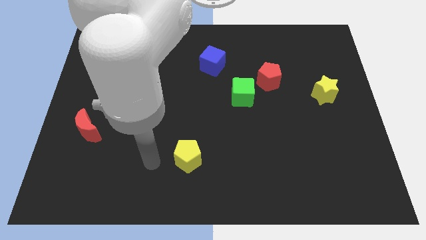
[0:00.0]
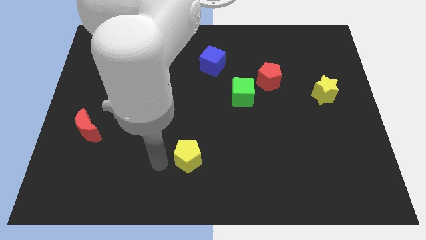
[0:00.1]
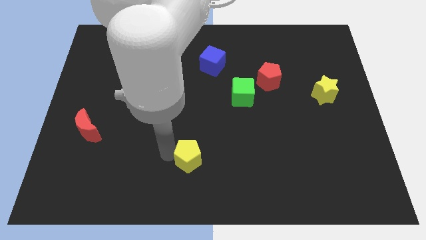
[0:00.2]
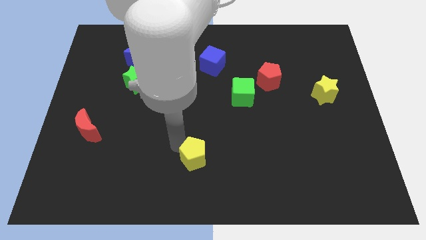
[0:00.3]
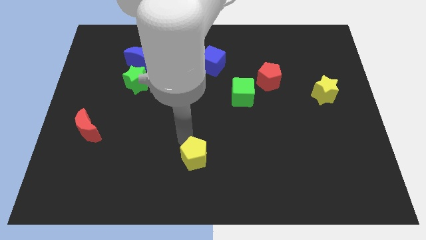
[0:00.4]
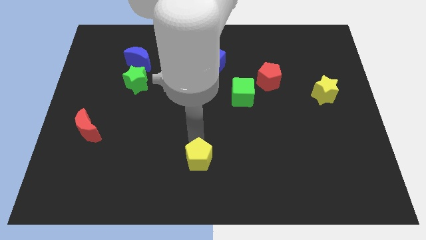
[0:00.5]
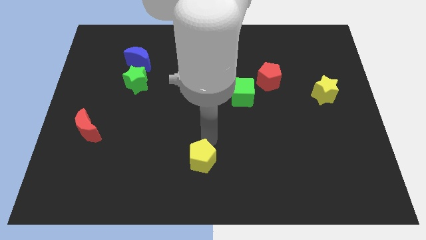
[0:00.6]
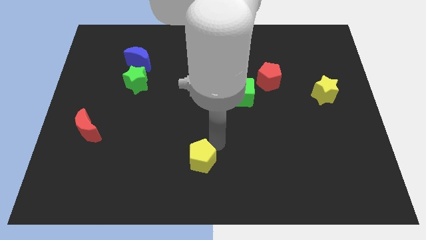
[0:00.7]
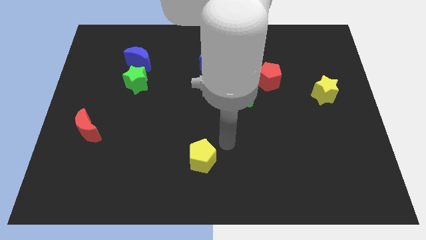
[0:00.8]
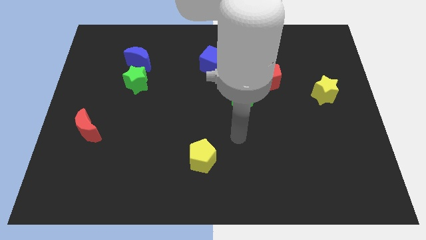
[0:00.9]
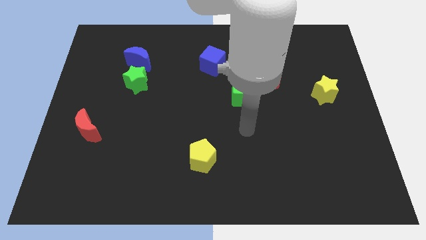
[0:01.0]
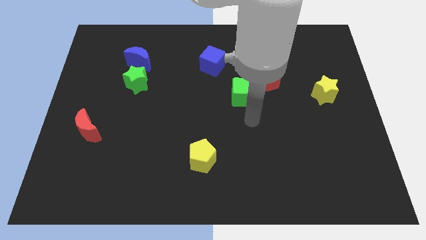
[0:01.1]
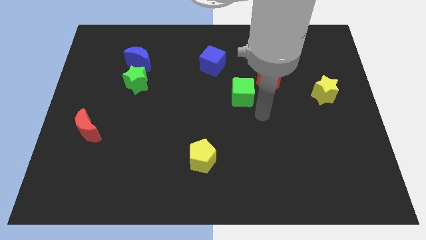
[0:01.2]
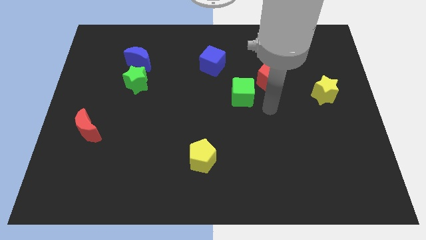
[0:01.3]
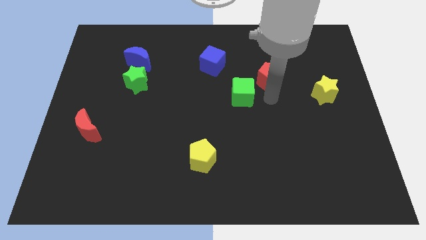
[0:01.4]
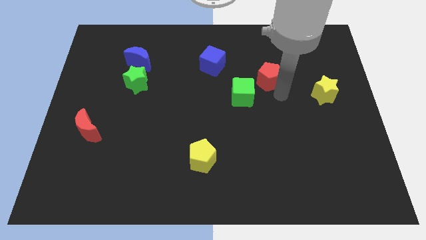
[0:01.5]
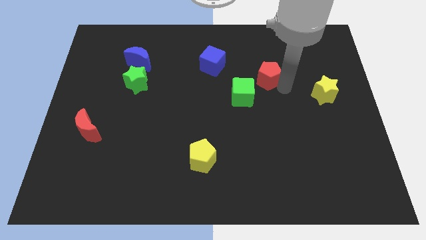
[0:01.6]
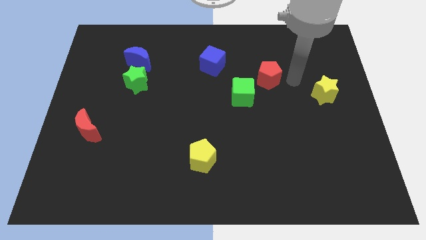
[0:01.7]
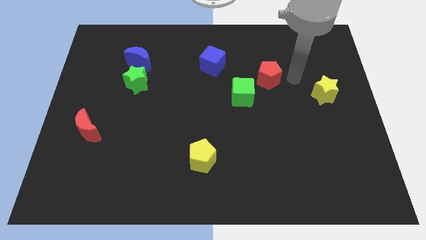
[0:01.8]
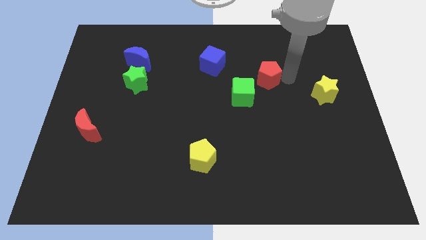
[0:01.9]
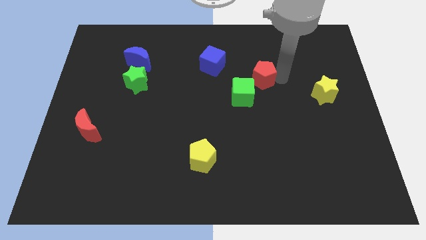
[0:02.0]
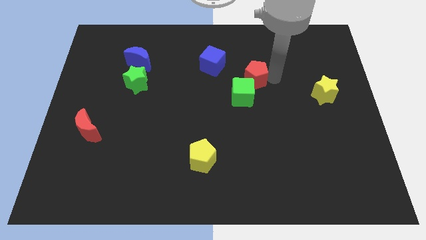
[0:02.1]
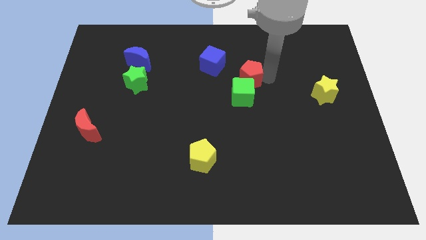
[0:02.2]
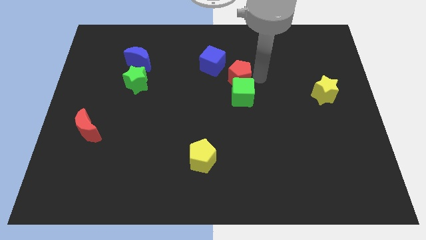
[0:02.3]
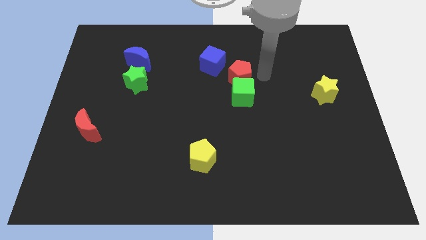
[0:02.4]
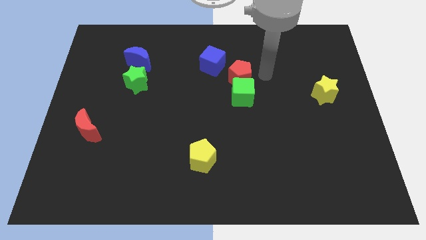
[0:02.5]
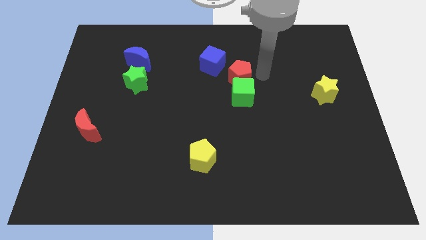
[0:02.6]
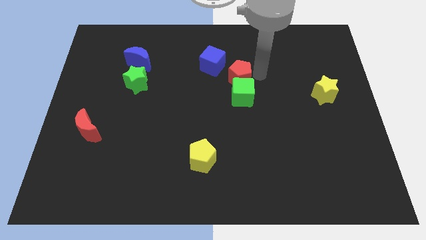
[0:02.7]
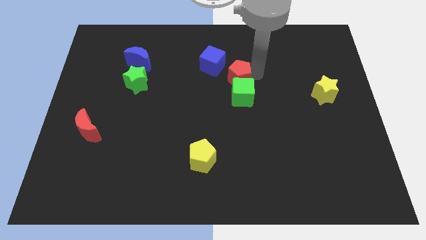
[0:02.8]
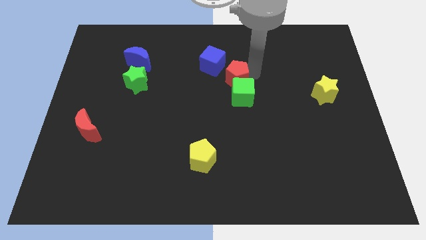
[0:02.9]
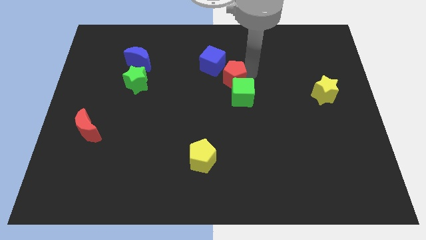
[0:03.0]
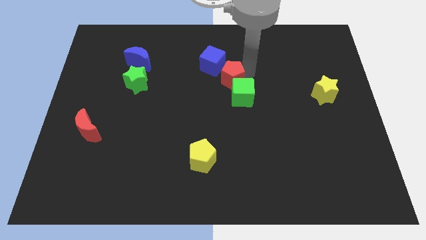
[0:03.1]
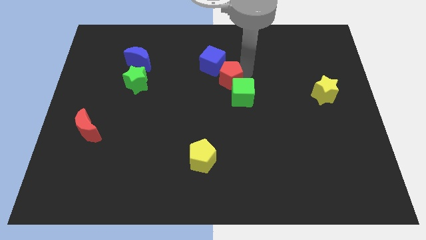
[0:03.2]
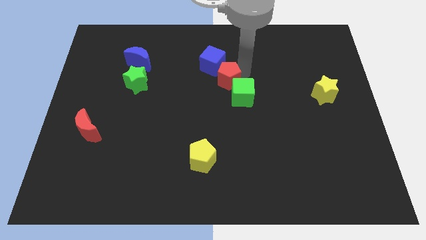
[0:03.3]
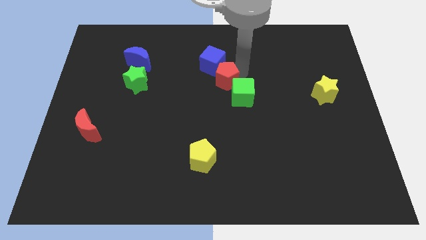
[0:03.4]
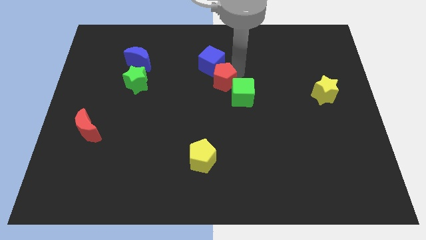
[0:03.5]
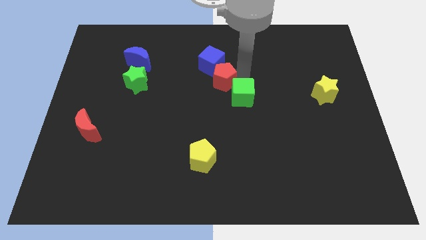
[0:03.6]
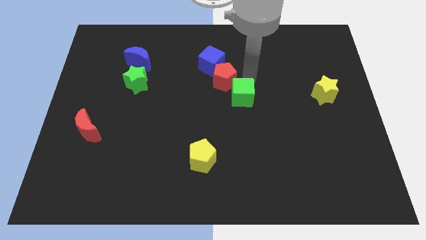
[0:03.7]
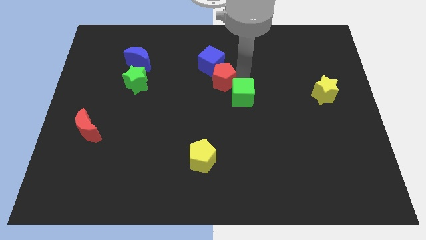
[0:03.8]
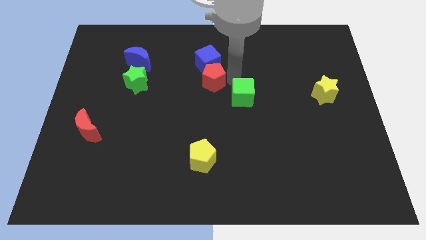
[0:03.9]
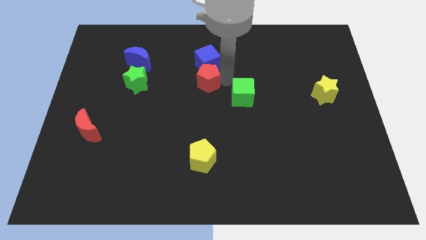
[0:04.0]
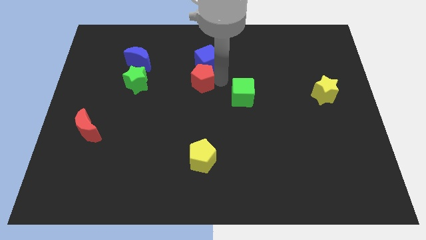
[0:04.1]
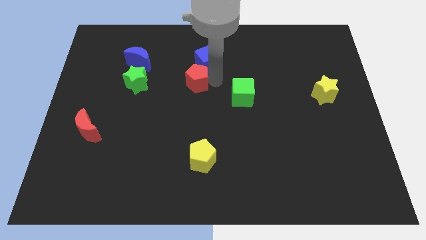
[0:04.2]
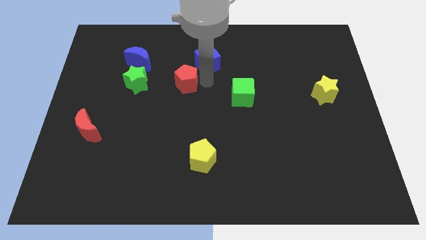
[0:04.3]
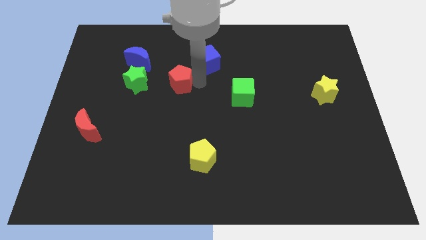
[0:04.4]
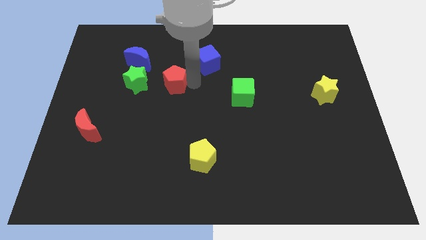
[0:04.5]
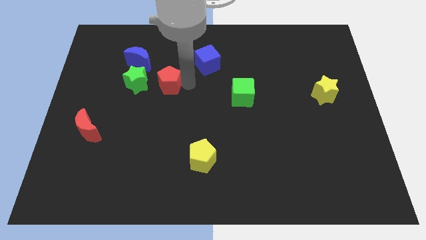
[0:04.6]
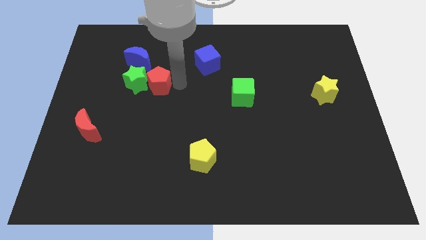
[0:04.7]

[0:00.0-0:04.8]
push the red pentagon towards the green star

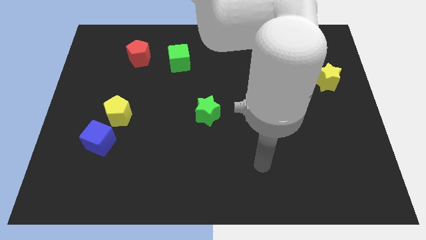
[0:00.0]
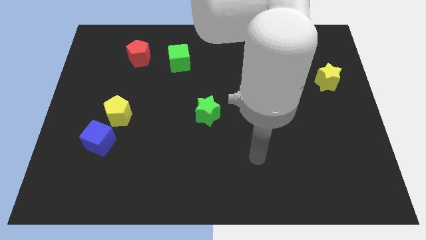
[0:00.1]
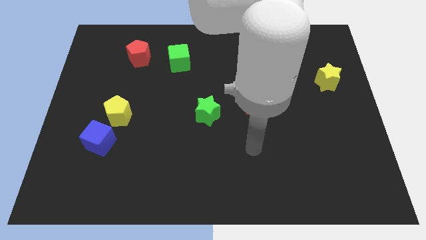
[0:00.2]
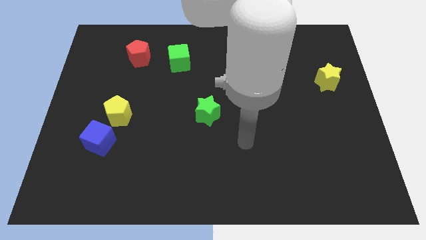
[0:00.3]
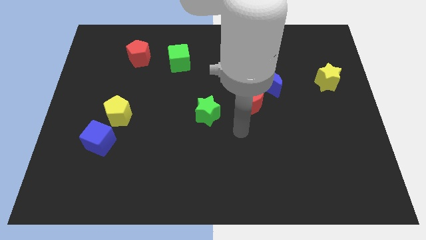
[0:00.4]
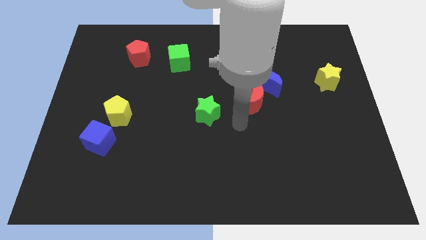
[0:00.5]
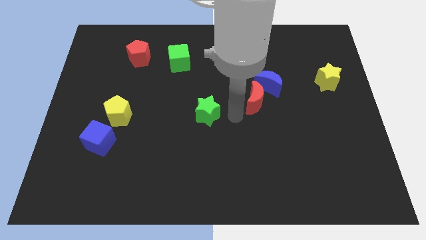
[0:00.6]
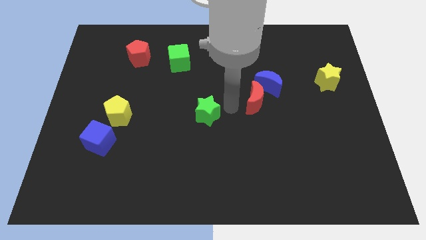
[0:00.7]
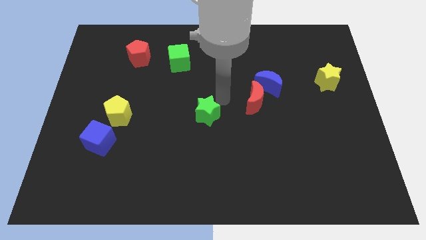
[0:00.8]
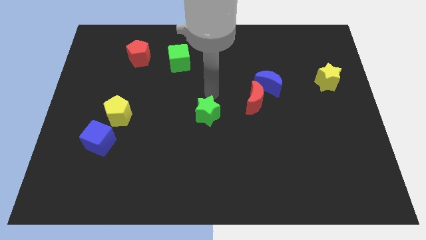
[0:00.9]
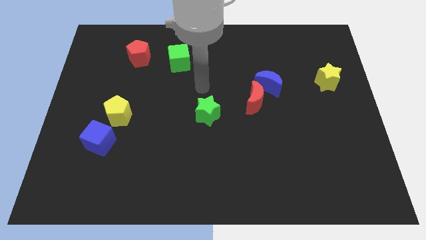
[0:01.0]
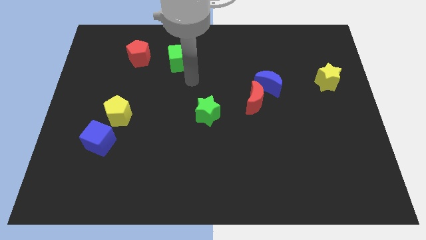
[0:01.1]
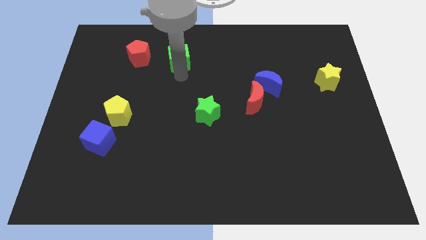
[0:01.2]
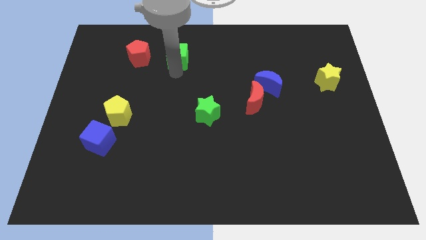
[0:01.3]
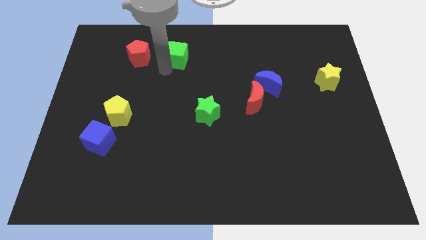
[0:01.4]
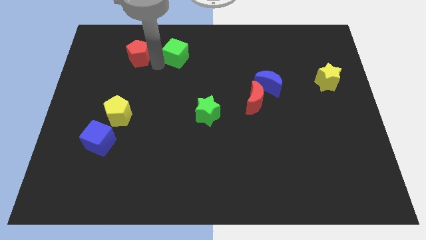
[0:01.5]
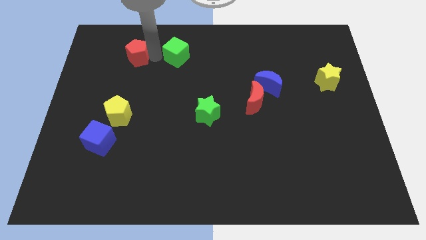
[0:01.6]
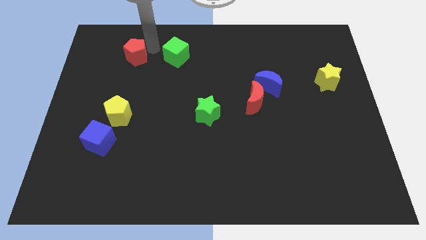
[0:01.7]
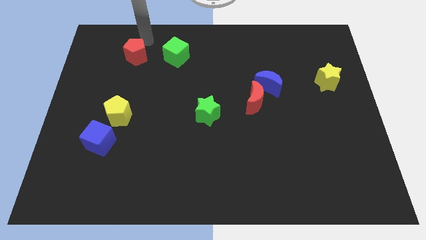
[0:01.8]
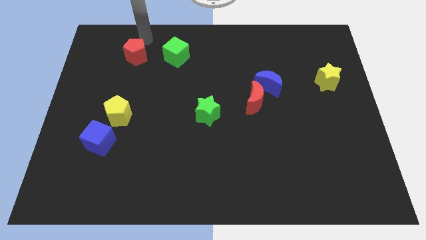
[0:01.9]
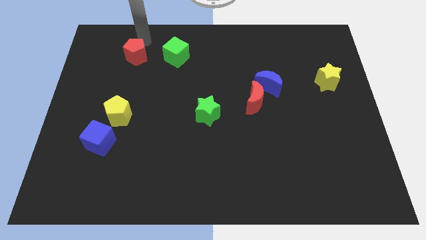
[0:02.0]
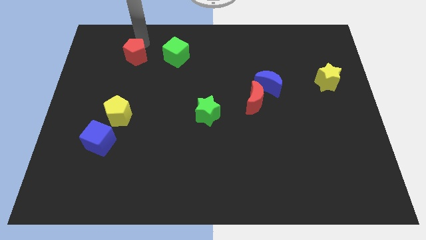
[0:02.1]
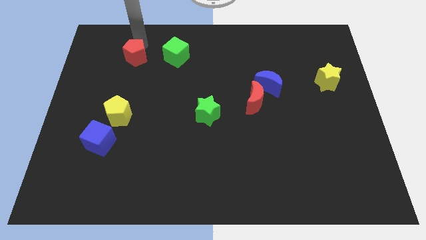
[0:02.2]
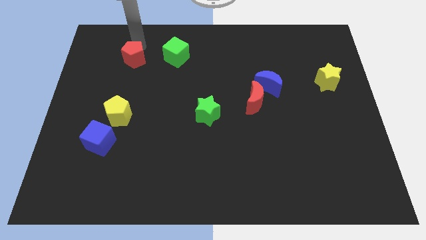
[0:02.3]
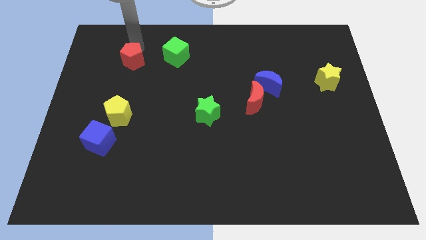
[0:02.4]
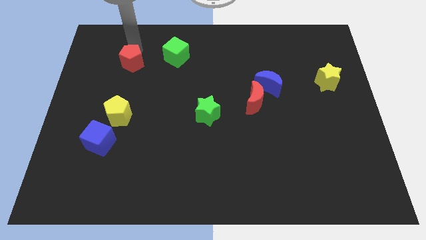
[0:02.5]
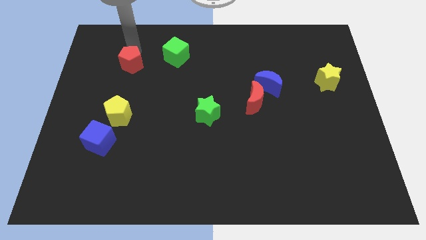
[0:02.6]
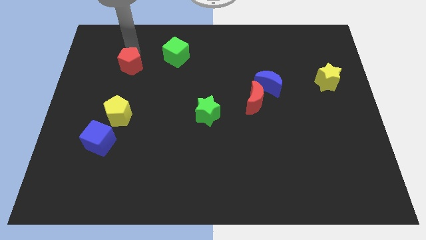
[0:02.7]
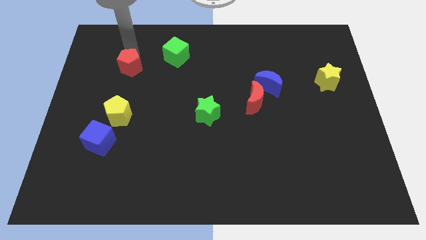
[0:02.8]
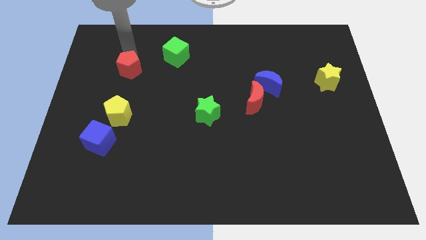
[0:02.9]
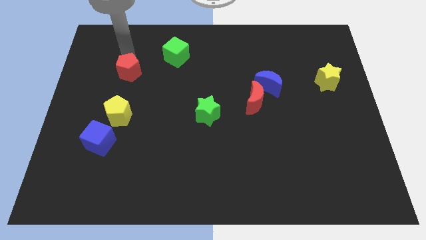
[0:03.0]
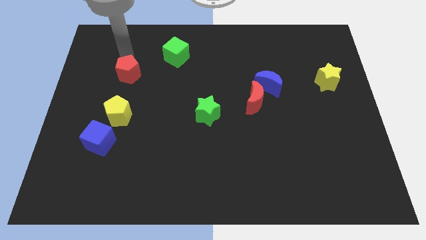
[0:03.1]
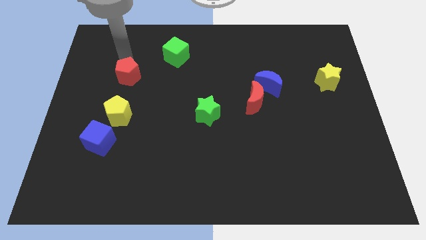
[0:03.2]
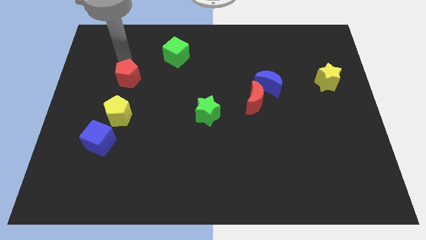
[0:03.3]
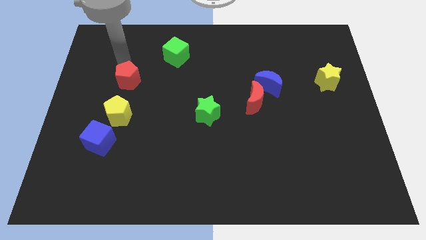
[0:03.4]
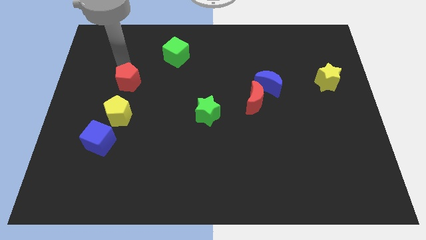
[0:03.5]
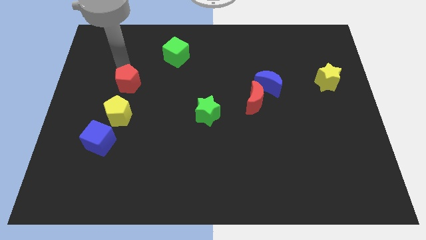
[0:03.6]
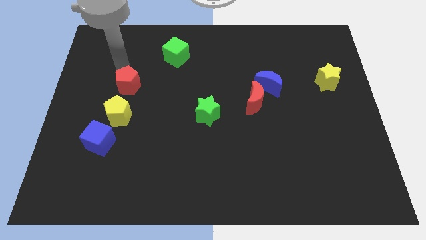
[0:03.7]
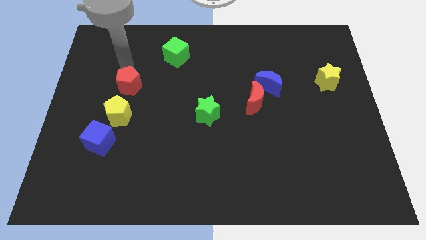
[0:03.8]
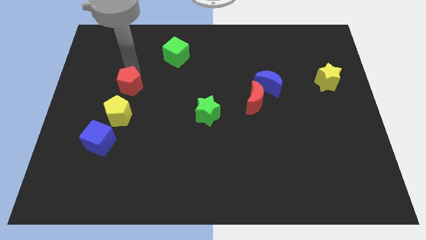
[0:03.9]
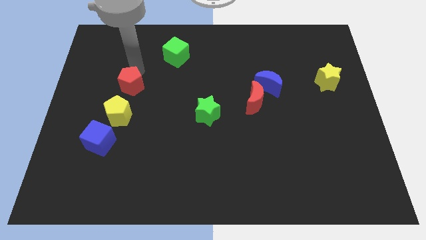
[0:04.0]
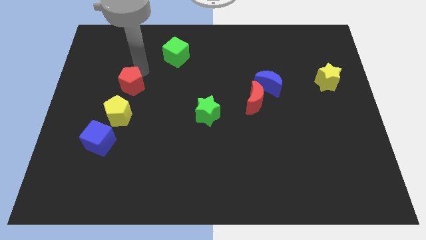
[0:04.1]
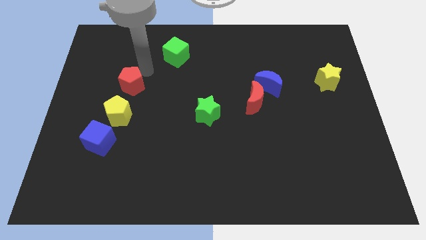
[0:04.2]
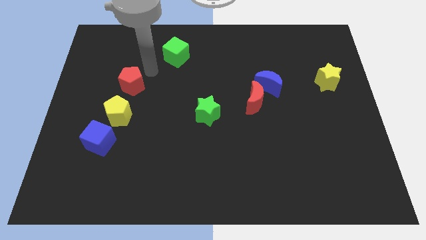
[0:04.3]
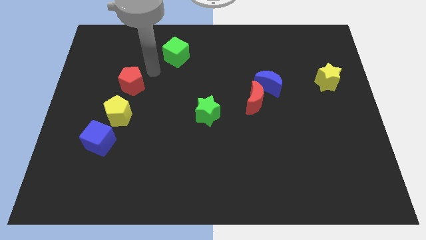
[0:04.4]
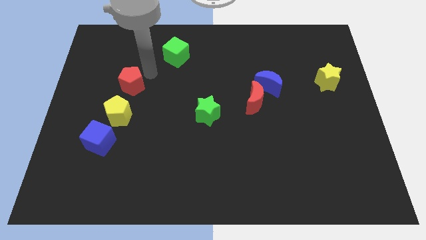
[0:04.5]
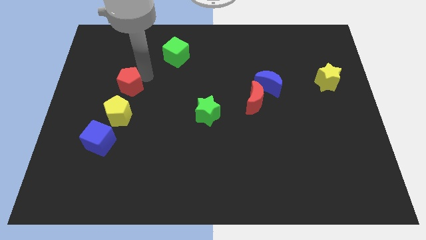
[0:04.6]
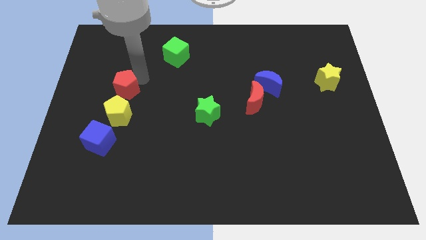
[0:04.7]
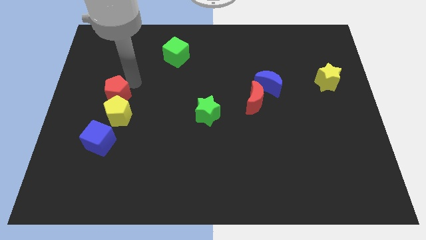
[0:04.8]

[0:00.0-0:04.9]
slide the red pentagon close to the yellow pentagon
